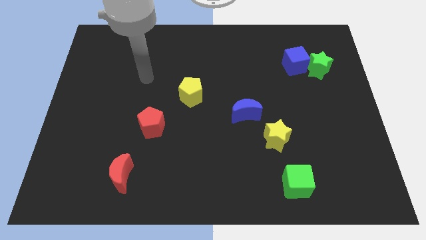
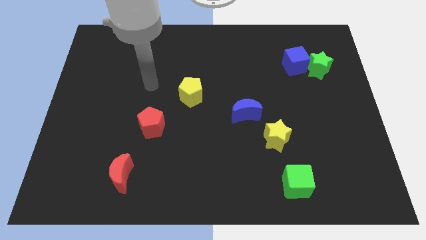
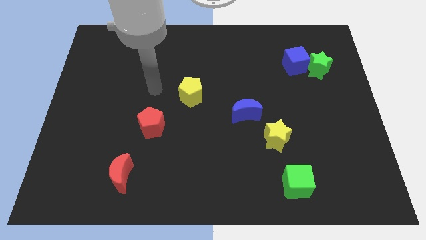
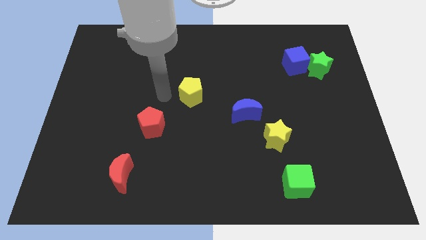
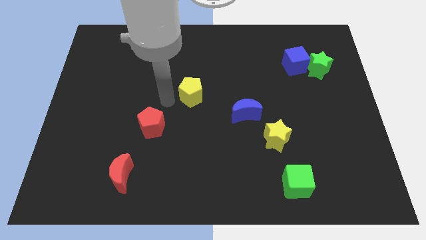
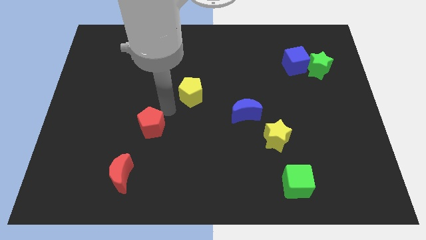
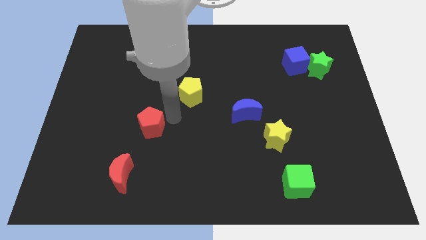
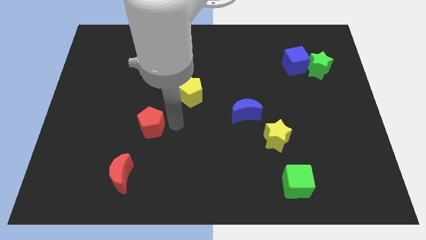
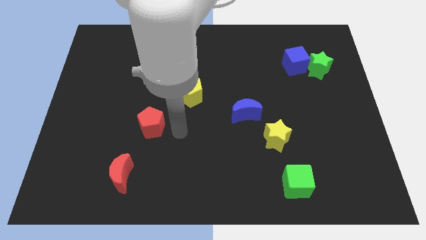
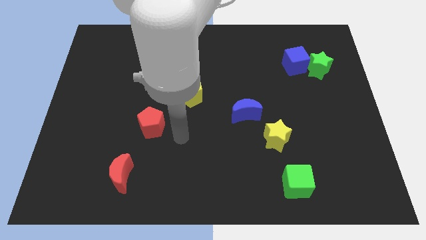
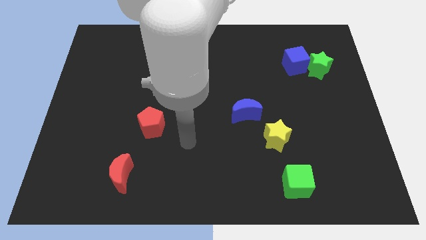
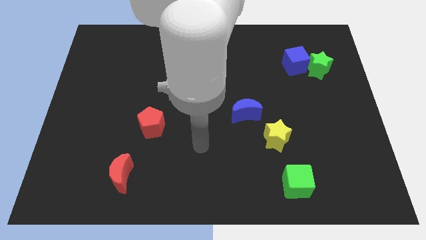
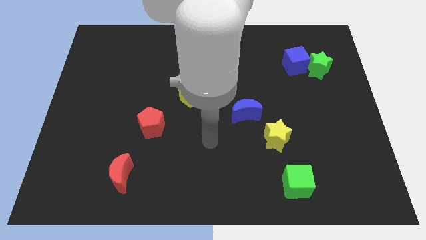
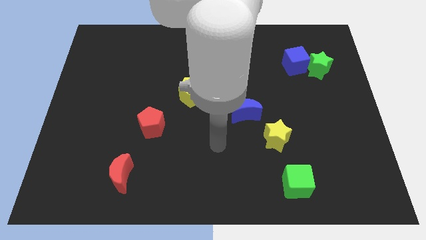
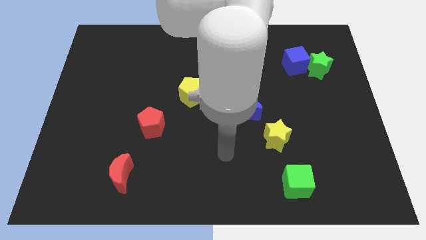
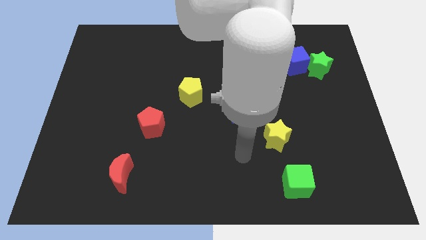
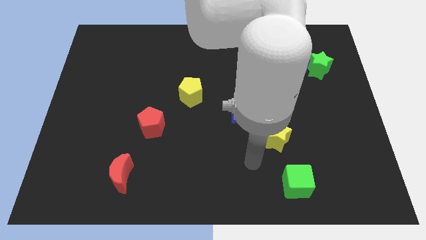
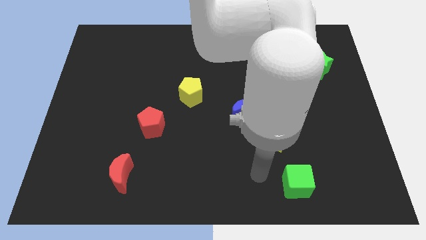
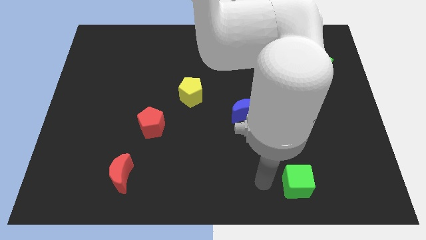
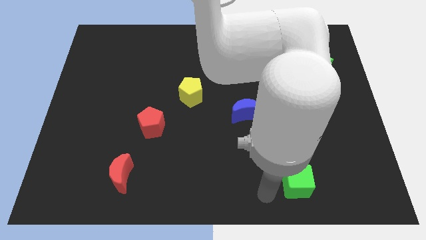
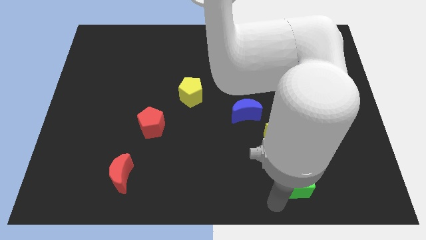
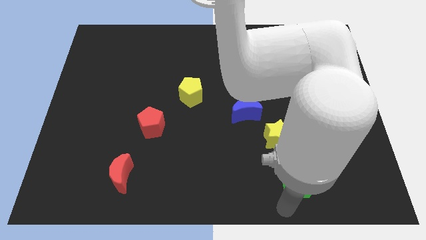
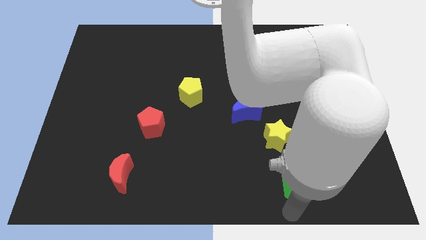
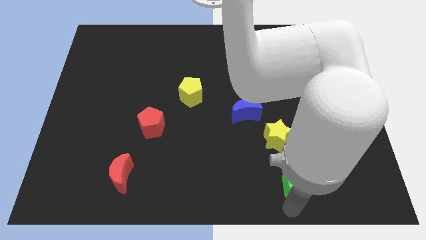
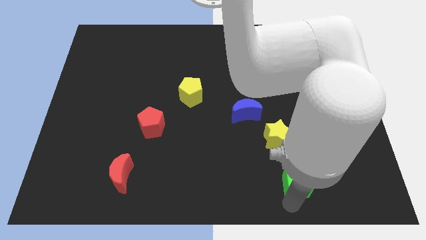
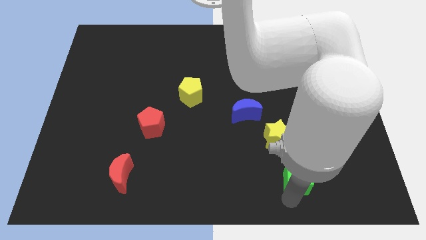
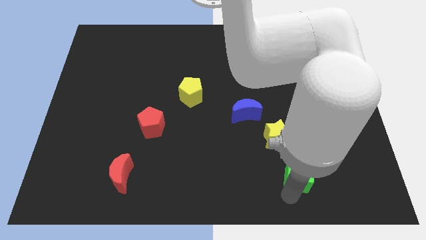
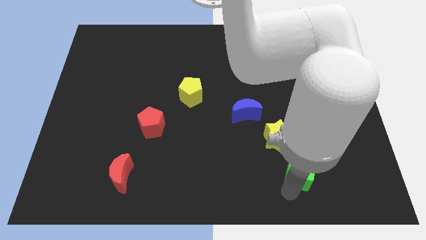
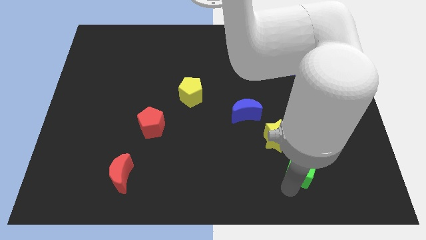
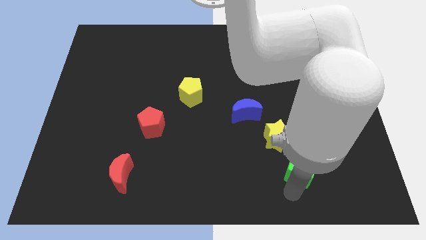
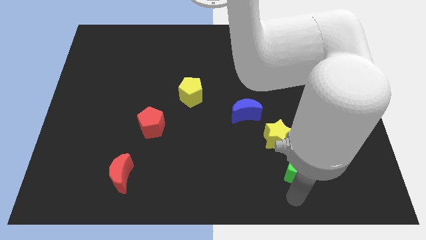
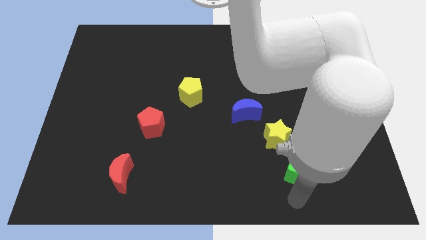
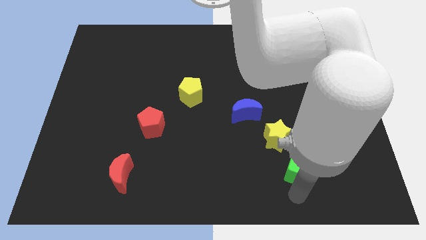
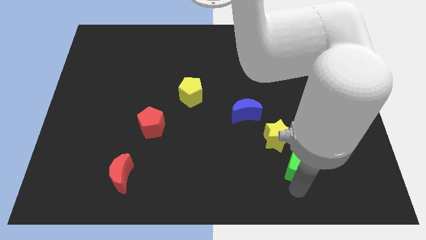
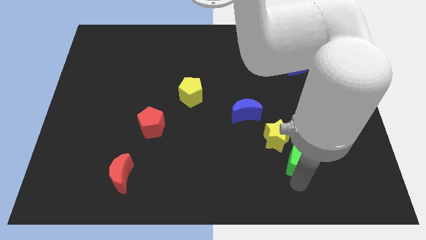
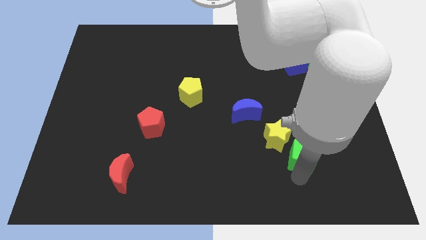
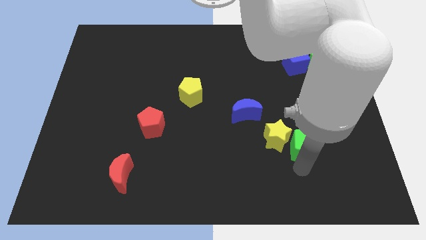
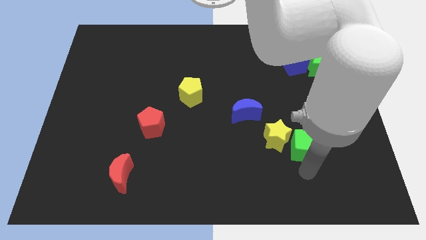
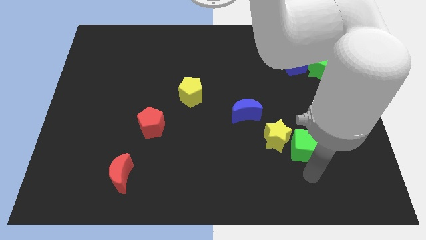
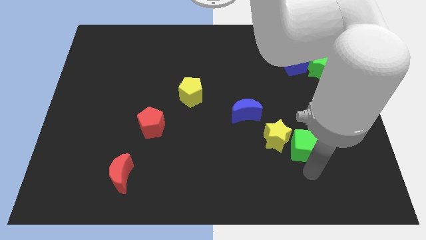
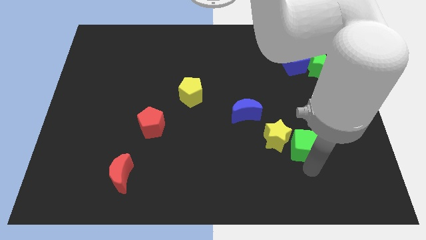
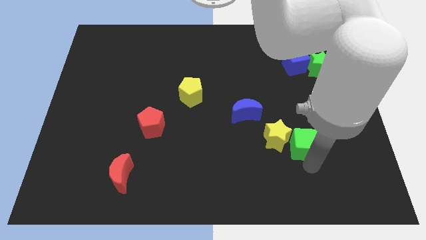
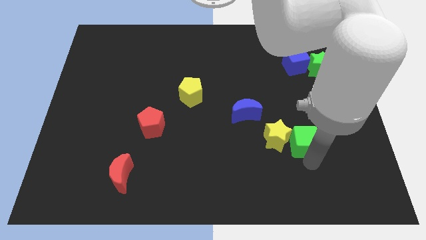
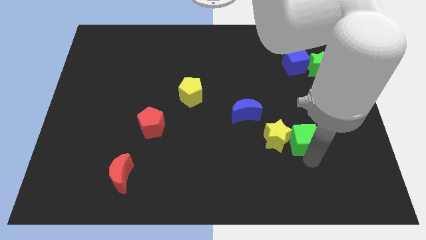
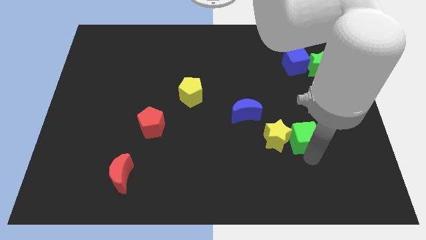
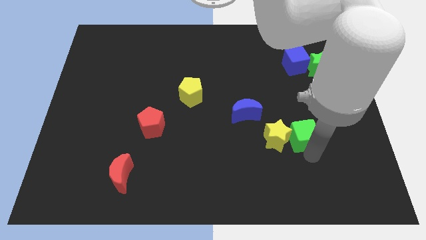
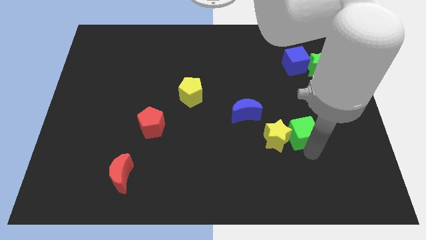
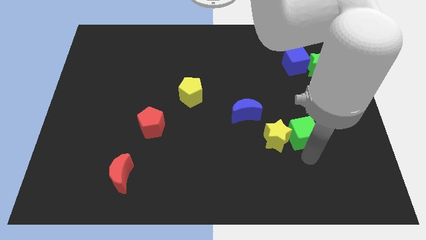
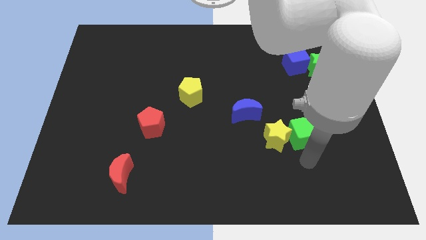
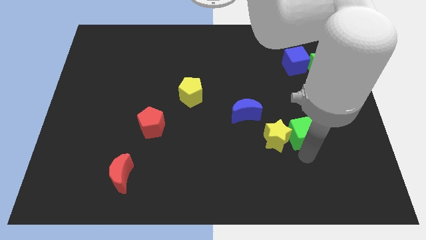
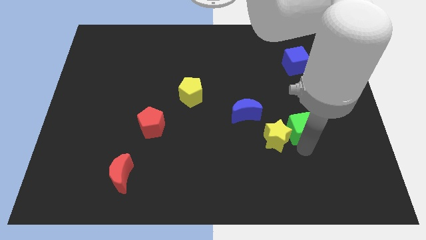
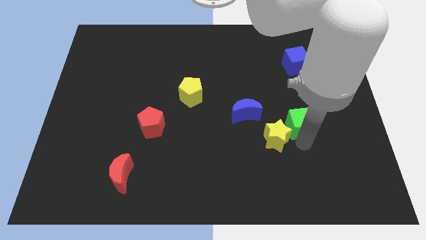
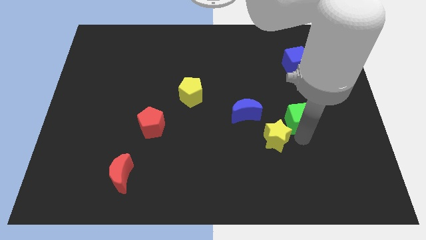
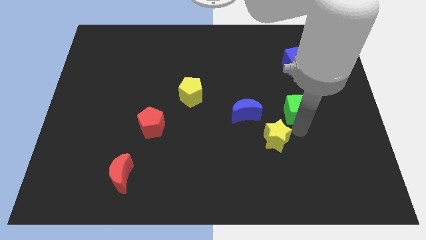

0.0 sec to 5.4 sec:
put the green cube to the bottom side of the blue cube

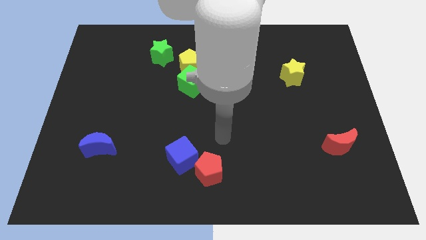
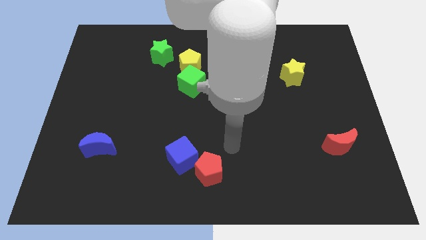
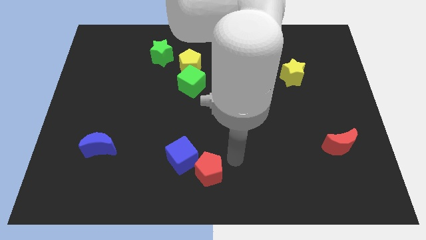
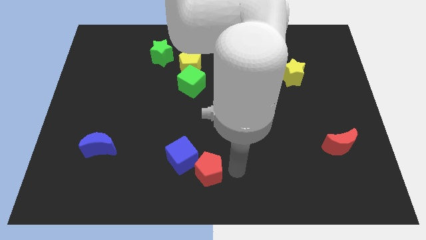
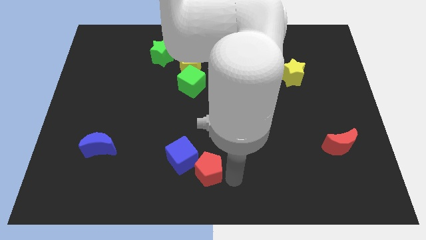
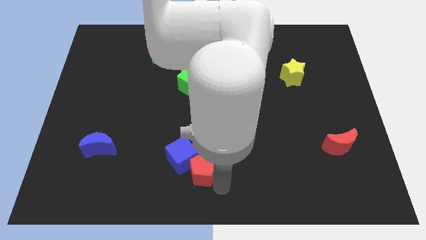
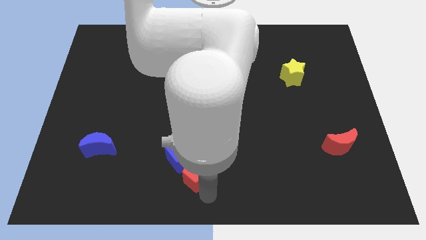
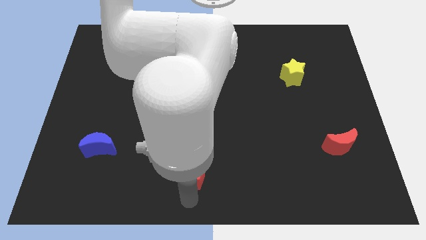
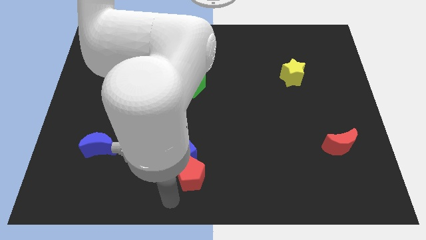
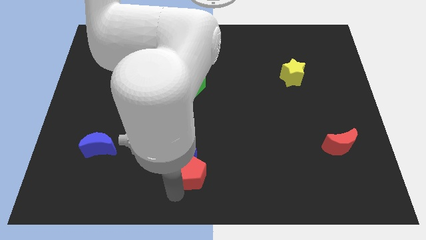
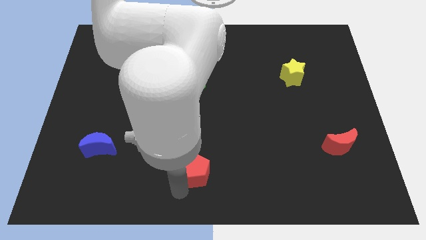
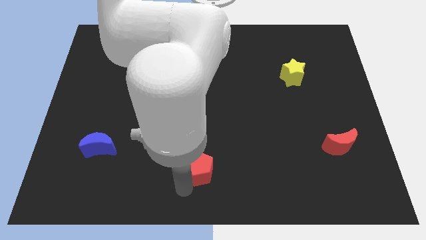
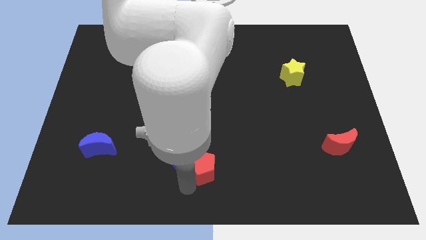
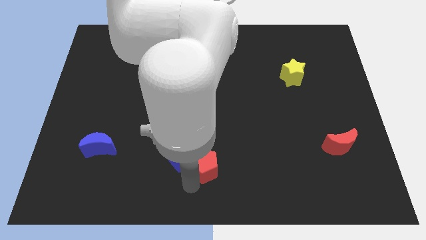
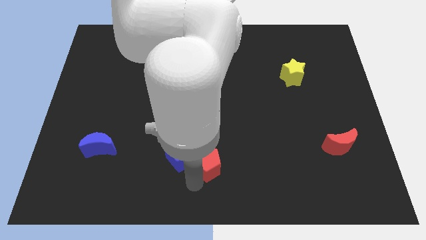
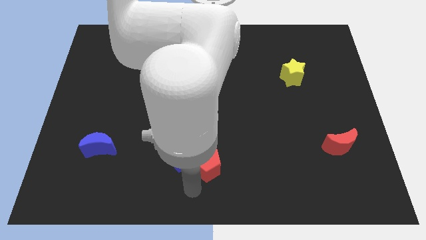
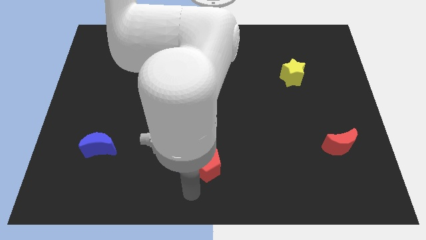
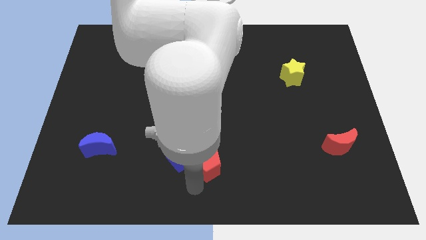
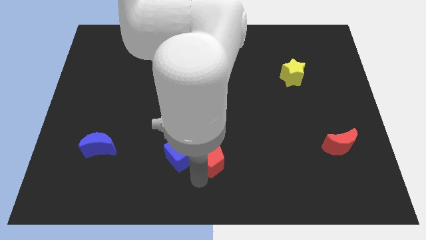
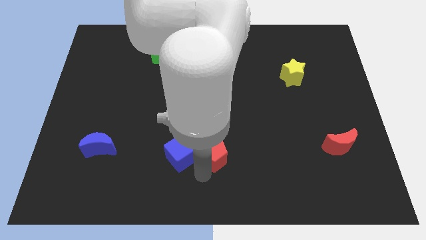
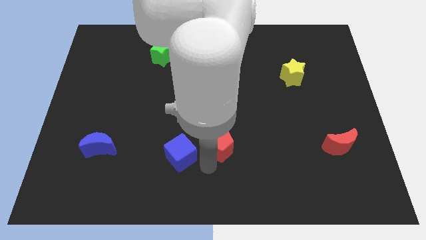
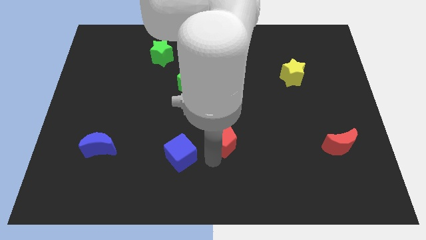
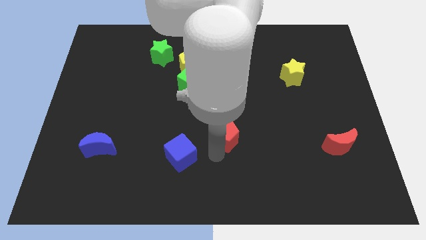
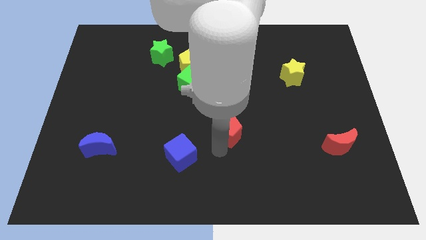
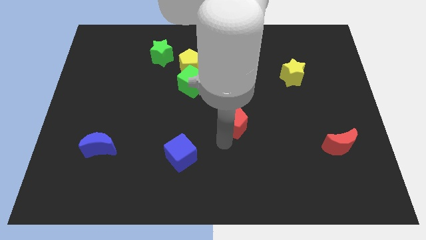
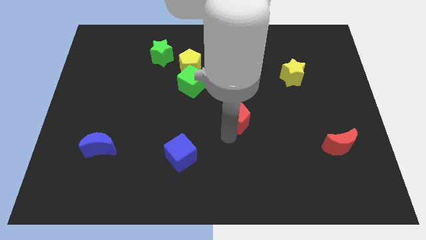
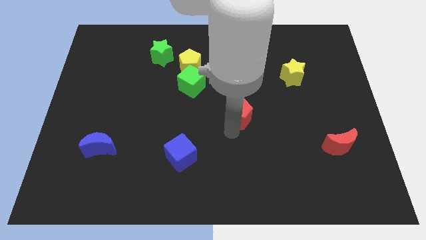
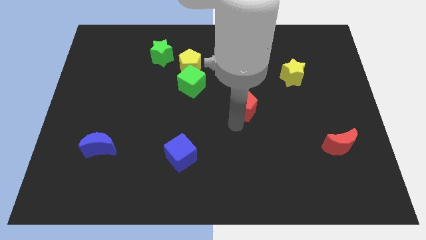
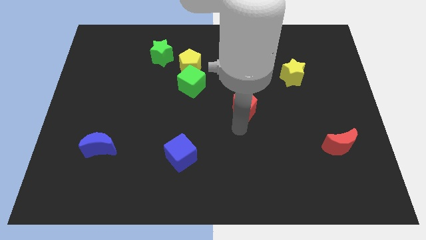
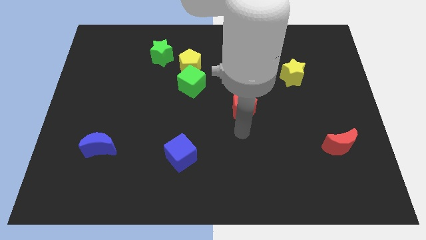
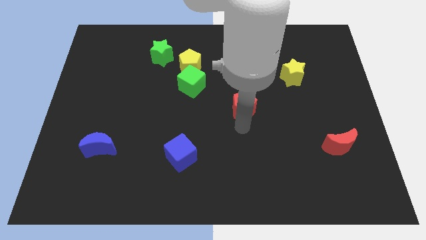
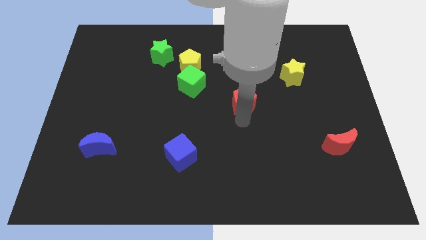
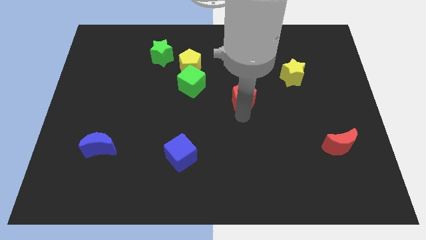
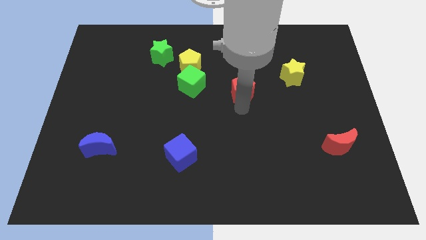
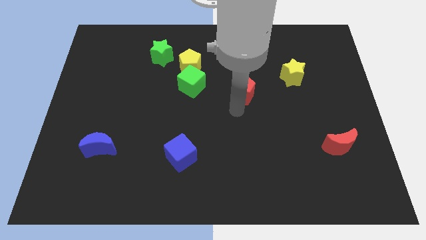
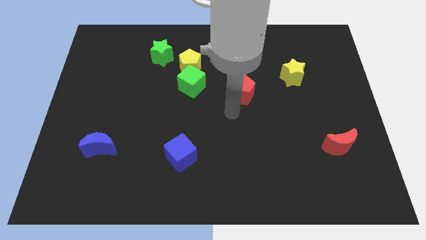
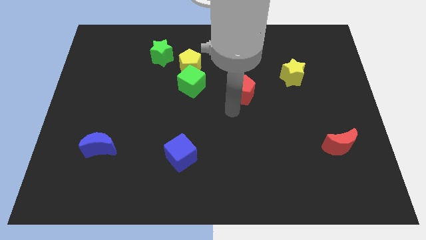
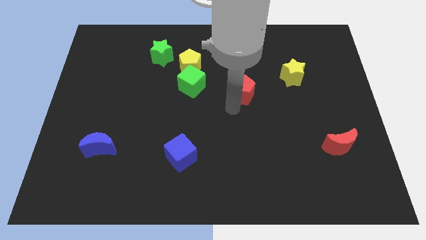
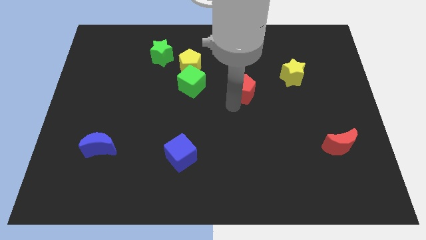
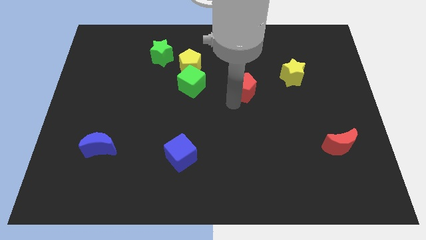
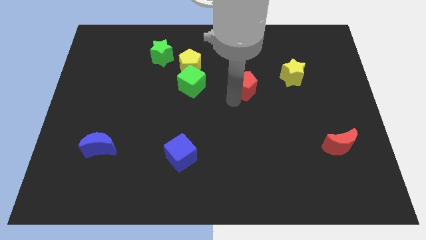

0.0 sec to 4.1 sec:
push the red pentagon left of the yellow star
